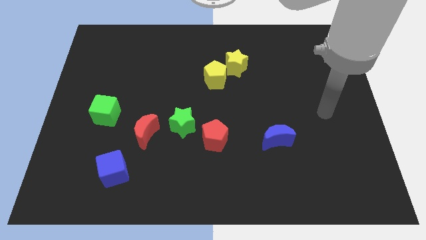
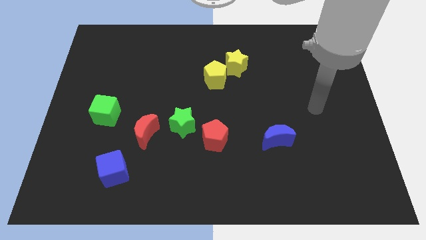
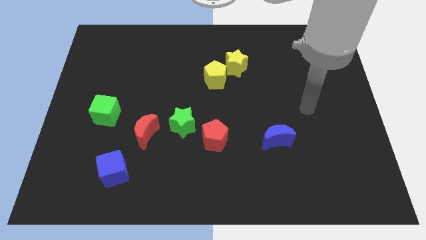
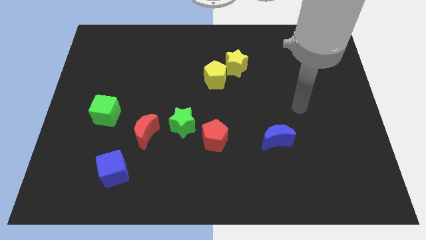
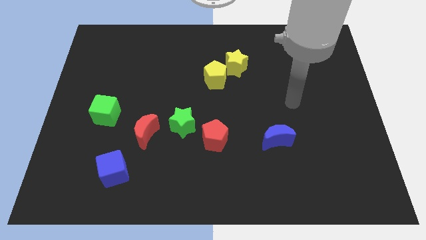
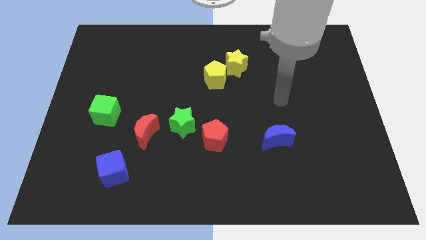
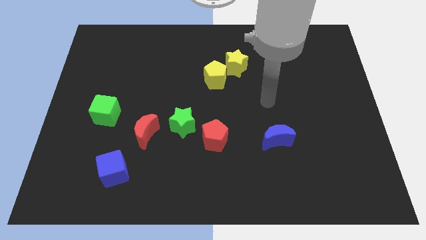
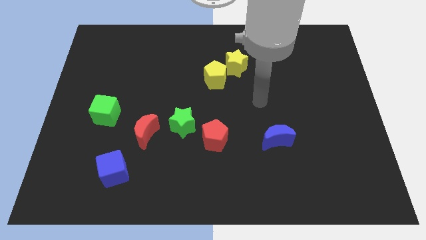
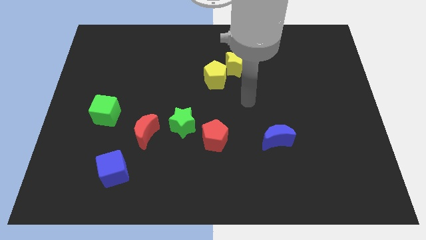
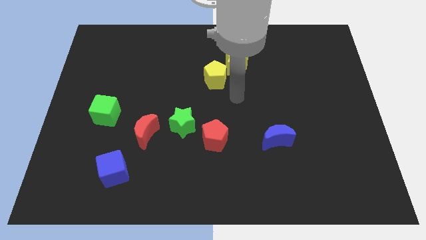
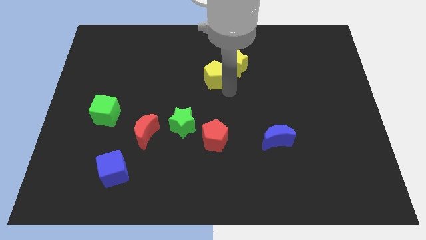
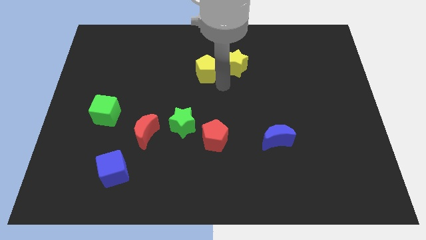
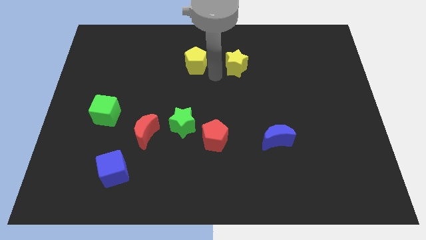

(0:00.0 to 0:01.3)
pull the yellow star apart from the yellow pentagon

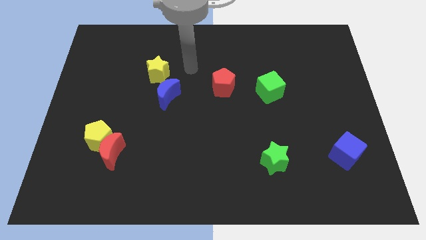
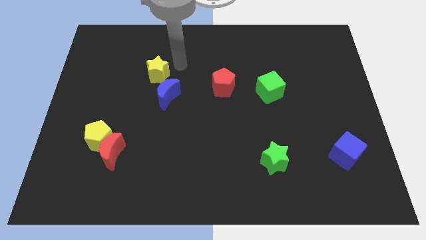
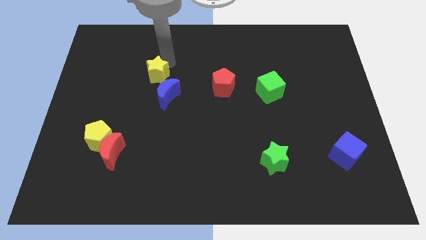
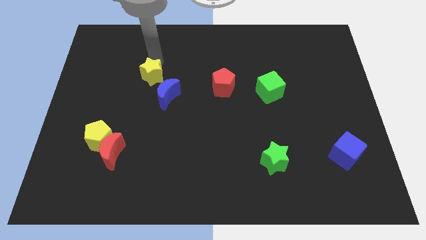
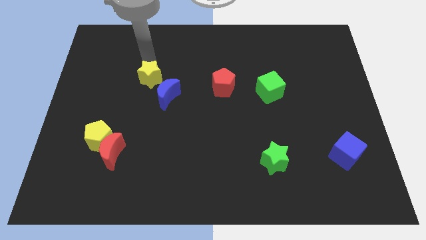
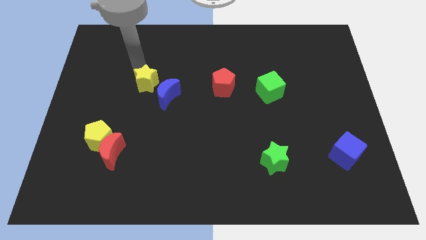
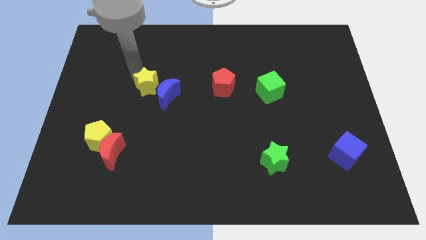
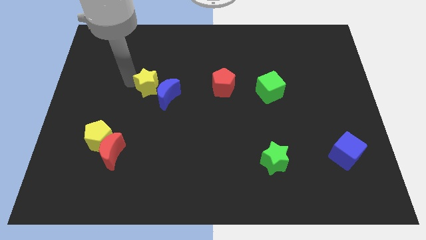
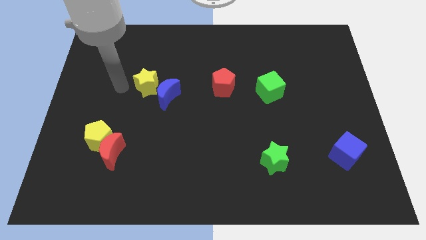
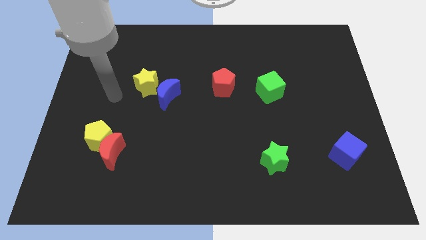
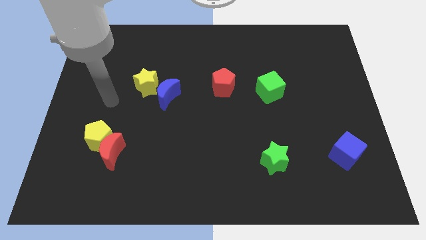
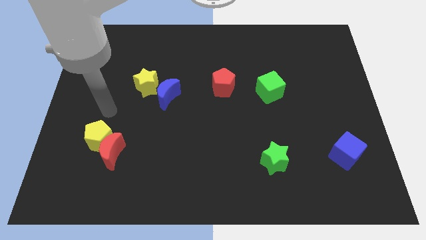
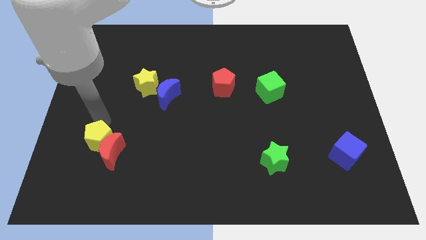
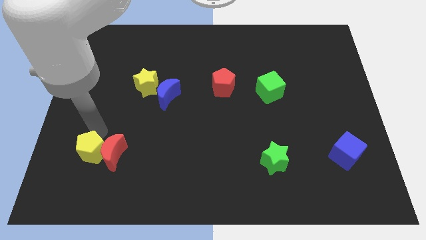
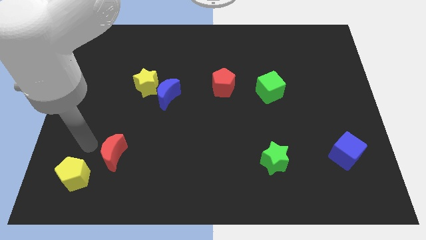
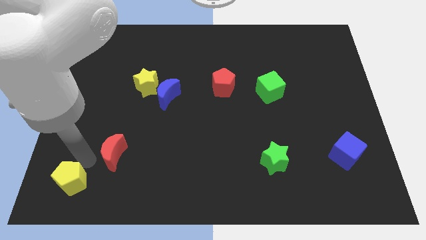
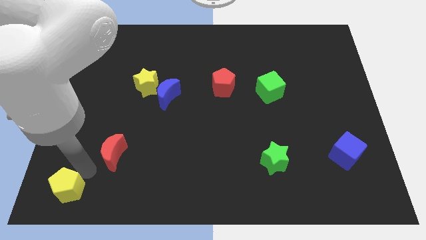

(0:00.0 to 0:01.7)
move the red moon away from the yellow pentagon

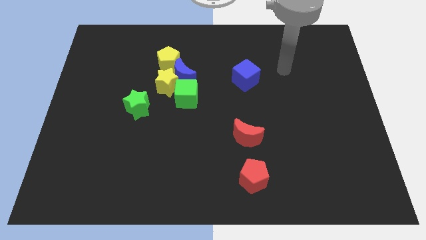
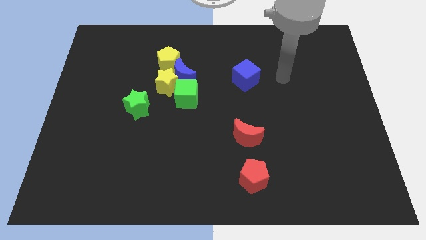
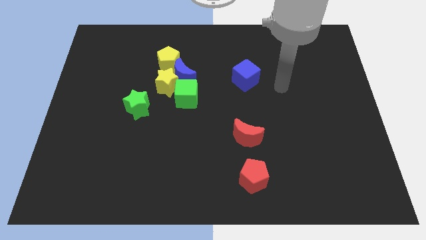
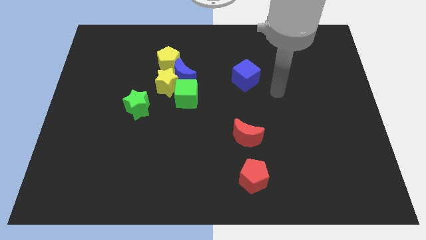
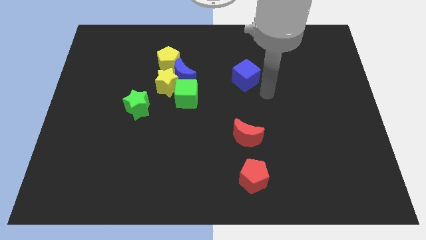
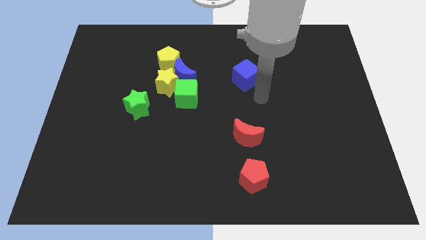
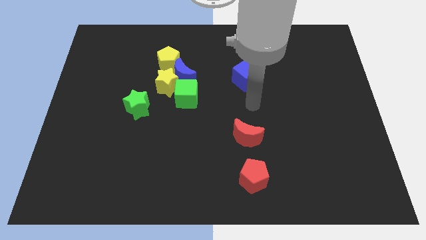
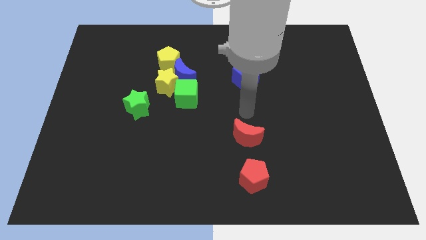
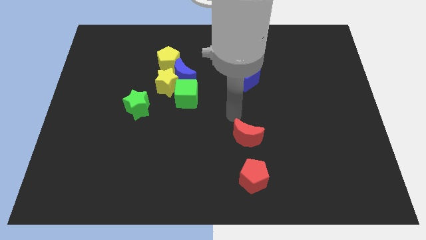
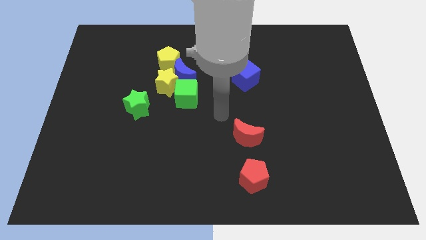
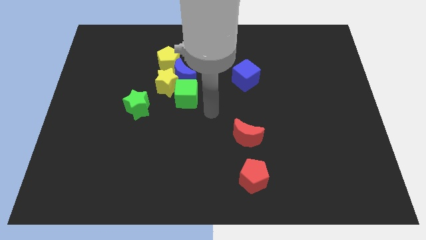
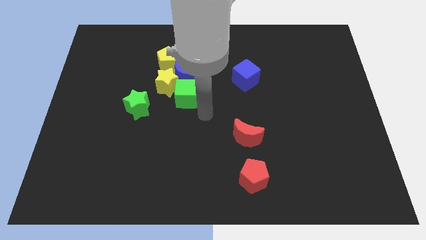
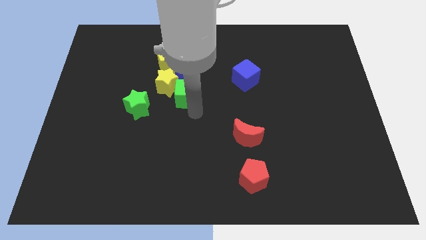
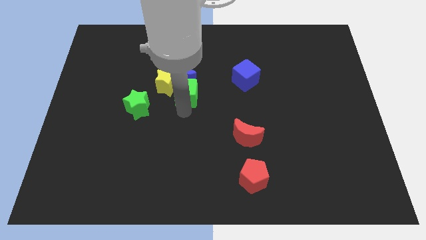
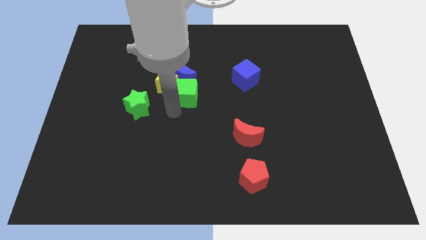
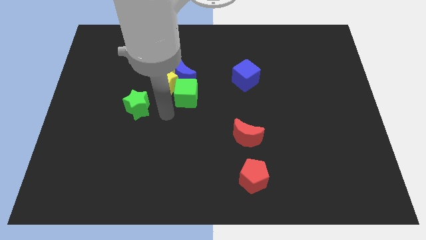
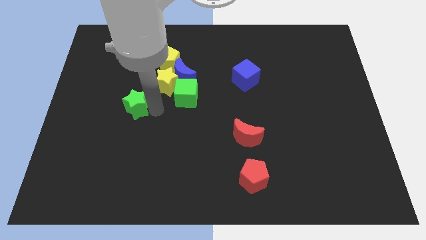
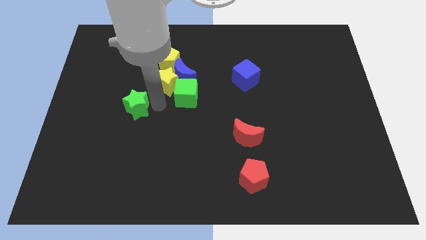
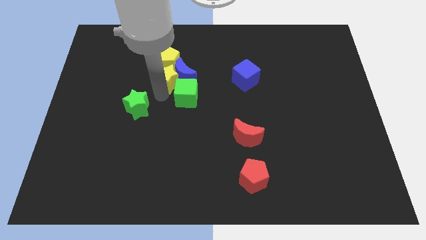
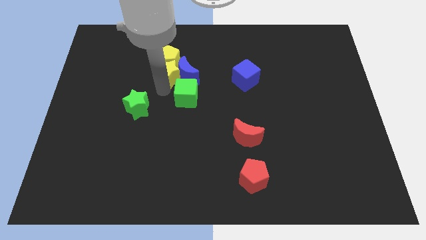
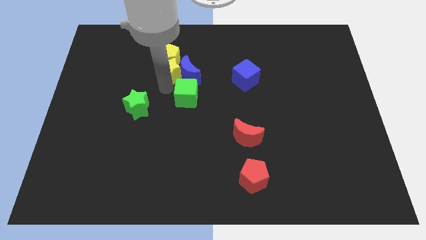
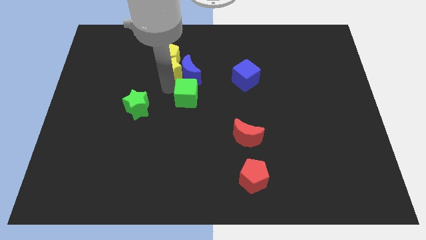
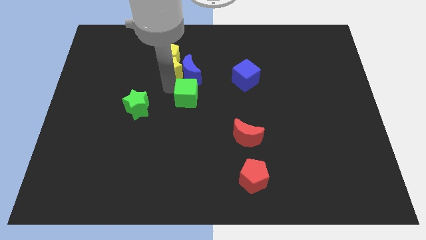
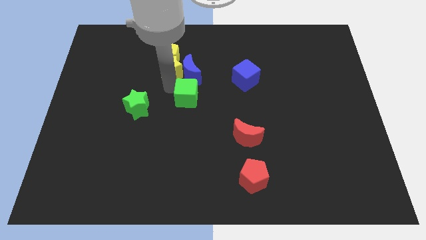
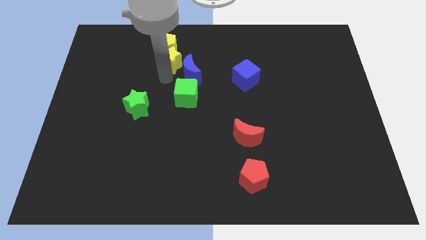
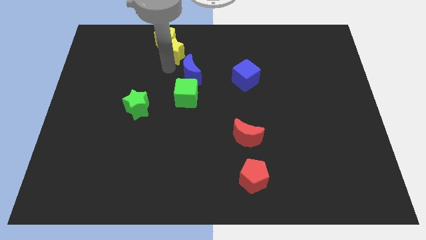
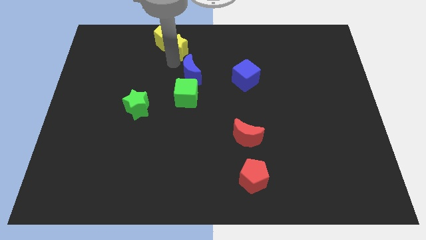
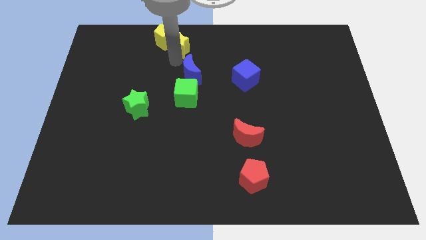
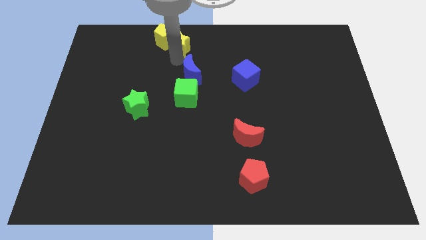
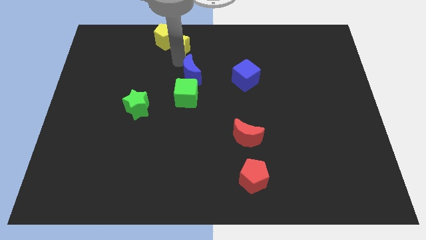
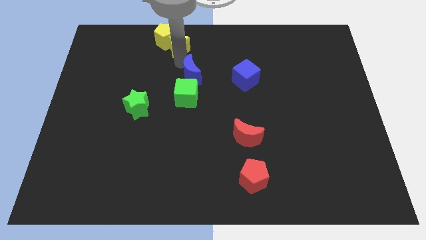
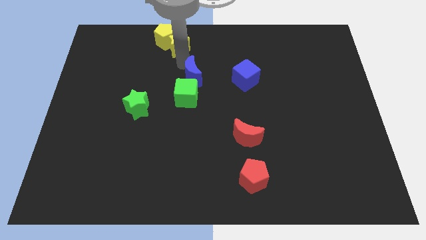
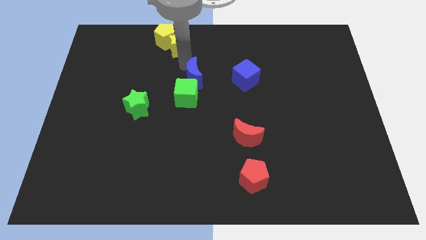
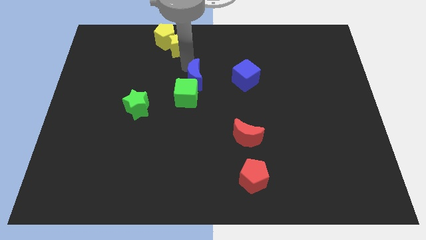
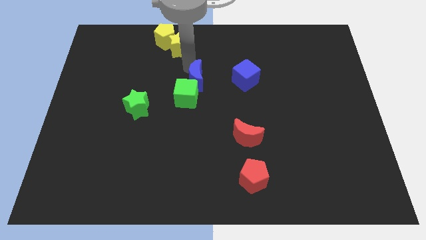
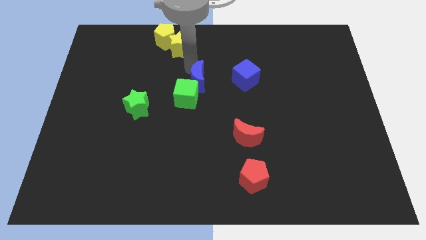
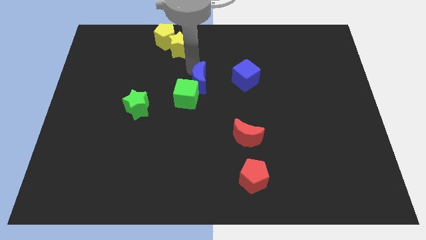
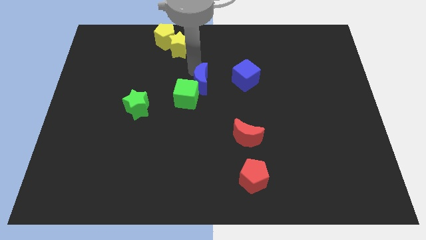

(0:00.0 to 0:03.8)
separate the blue moon from the yellow star, green cube, and yellow pentagon

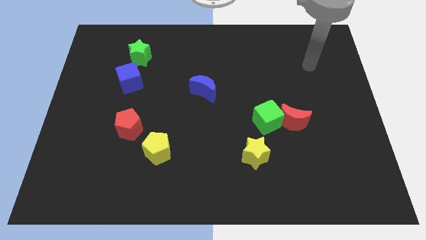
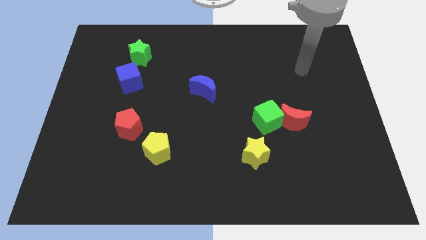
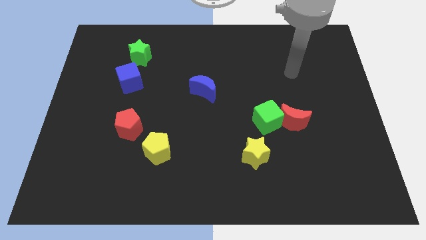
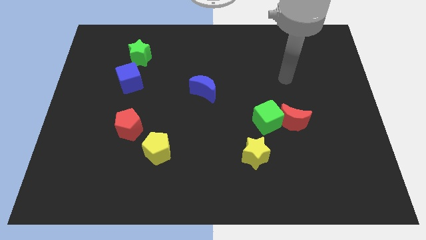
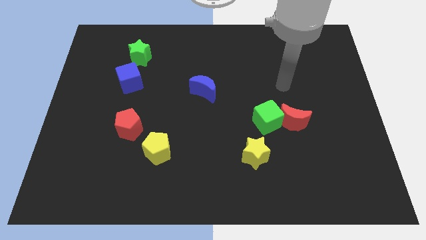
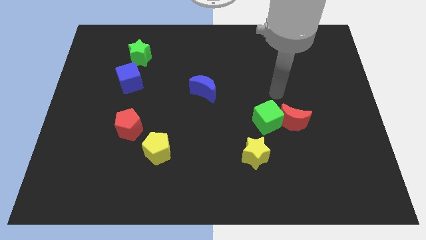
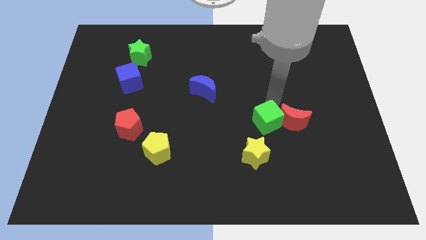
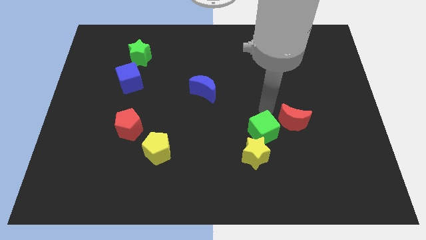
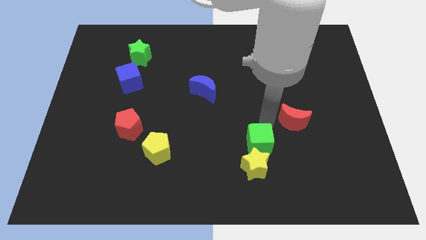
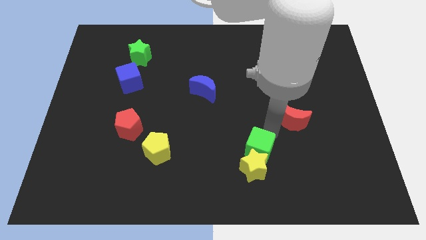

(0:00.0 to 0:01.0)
separate the red moon from the green cube

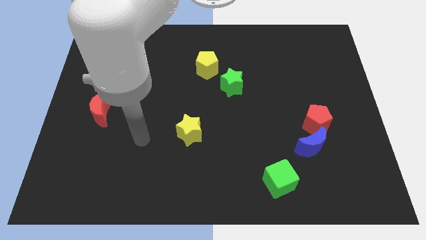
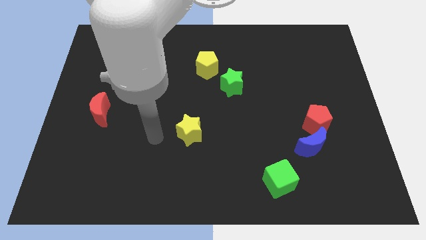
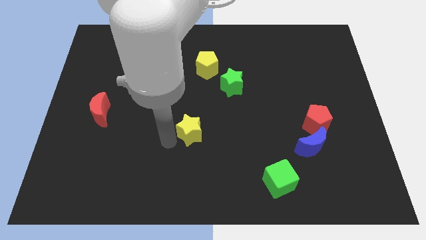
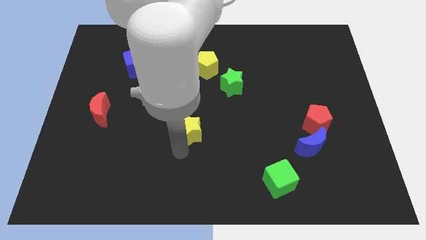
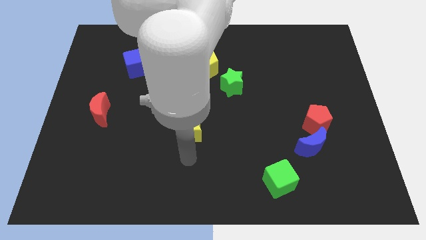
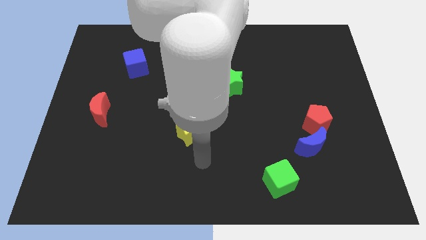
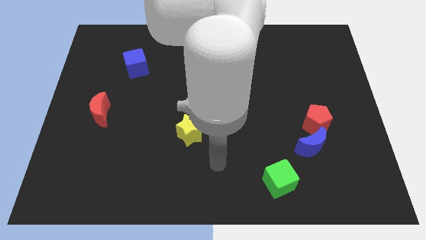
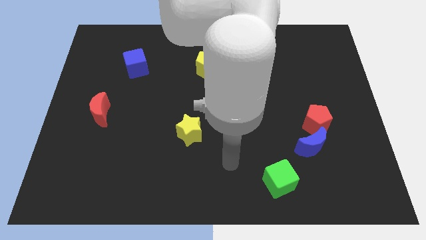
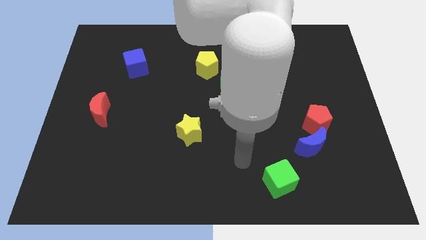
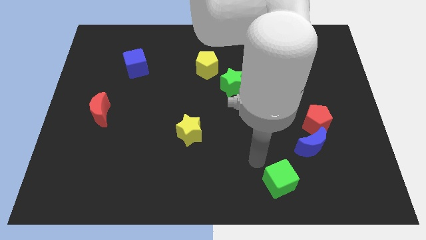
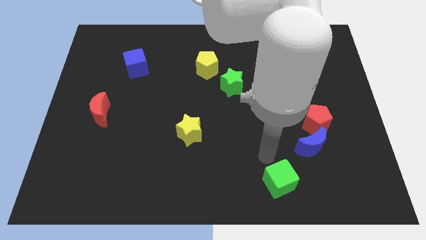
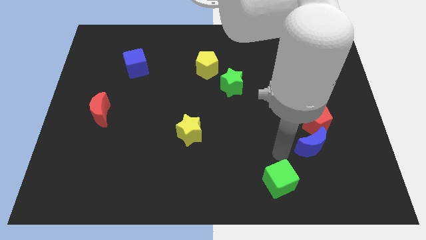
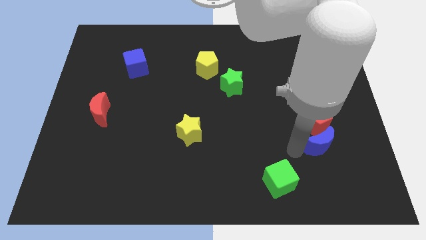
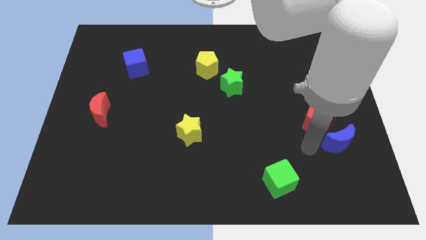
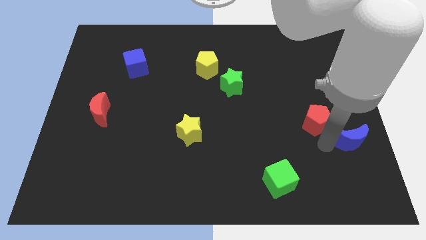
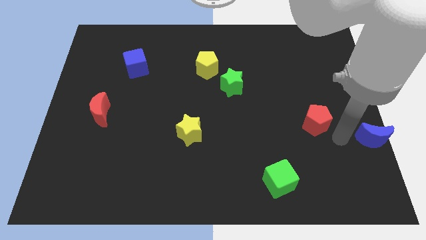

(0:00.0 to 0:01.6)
separate the red pentagon from the blue moon
